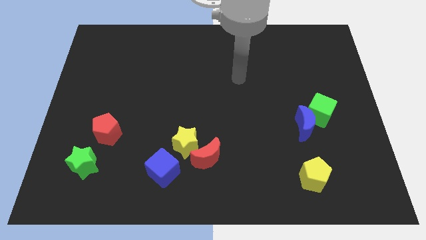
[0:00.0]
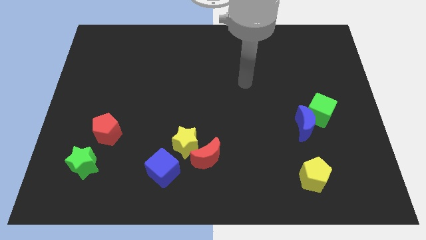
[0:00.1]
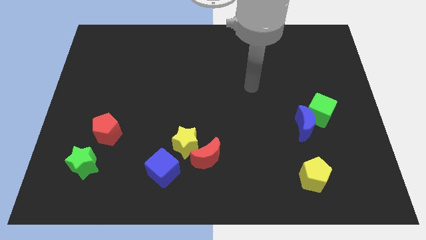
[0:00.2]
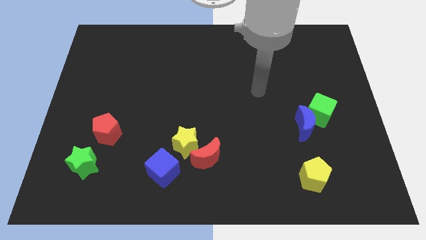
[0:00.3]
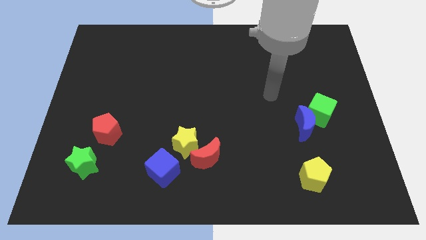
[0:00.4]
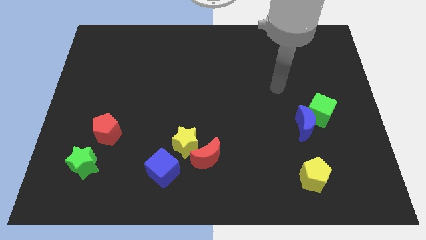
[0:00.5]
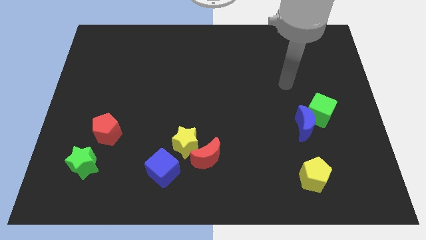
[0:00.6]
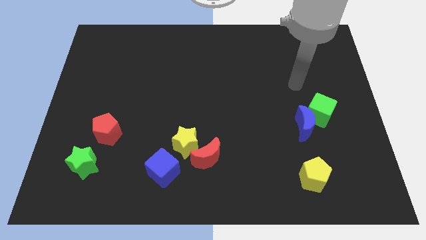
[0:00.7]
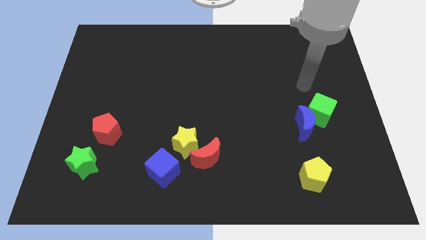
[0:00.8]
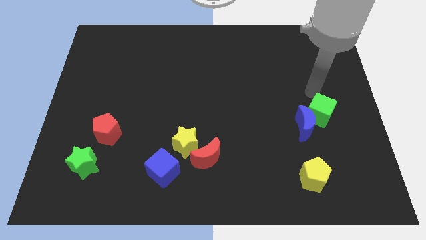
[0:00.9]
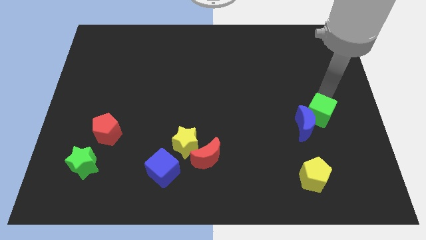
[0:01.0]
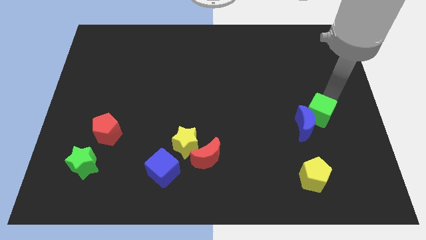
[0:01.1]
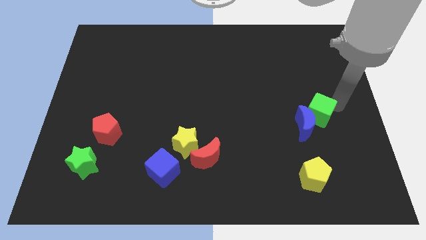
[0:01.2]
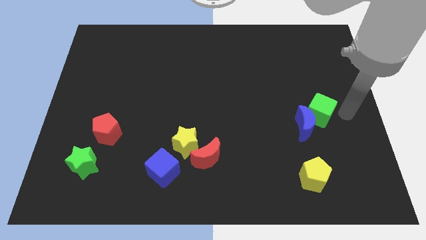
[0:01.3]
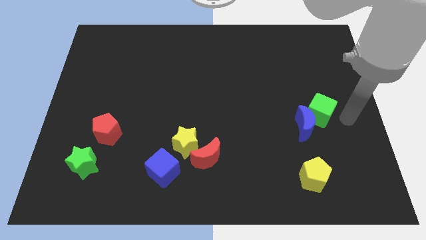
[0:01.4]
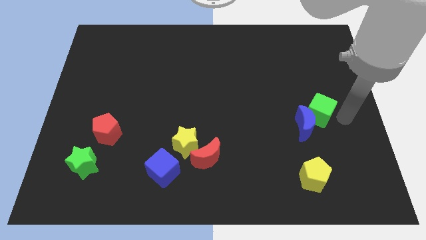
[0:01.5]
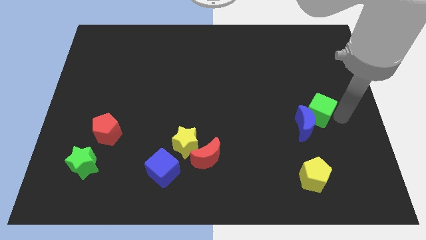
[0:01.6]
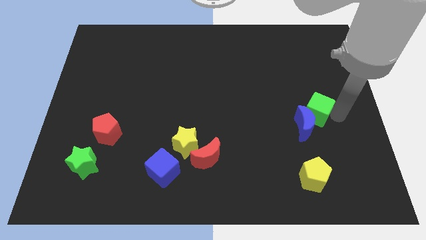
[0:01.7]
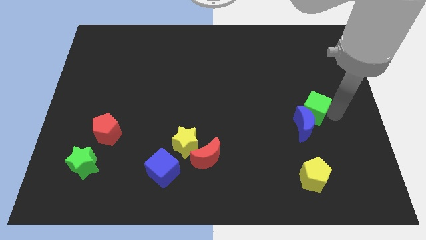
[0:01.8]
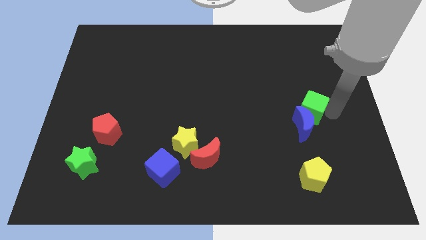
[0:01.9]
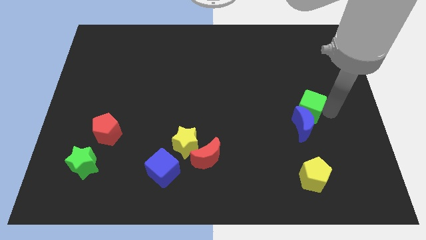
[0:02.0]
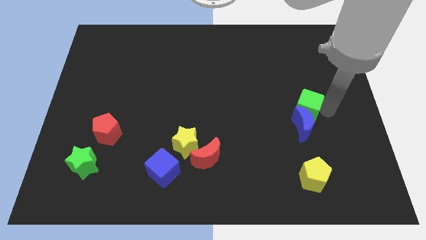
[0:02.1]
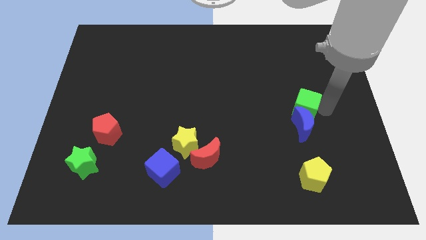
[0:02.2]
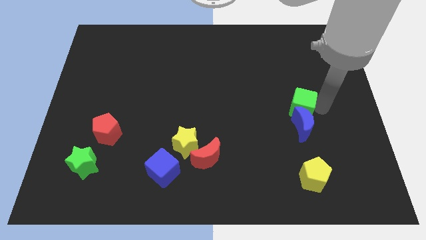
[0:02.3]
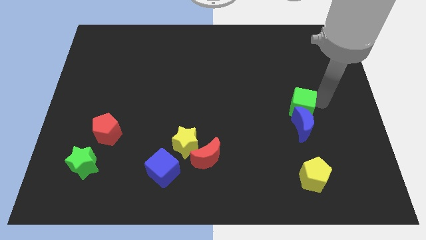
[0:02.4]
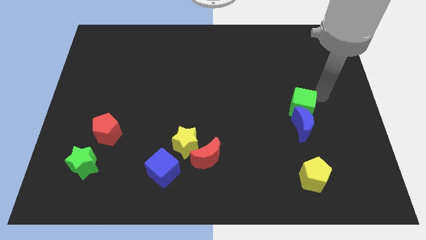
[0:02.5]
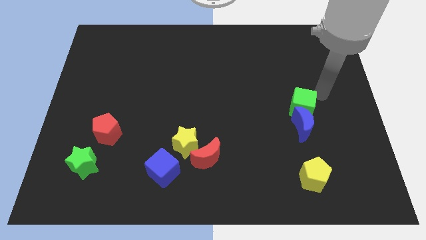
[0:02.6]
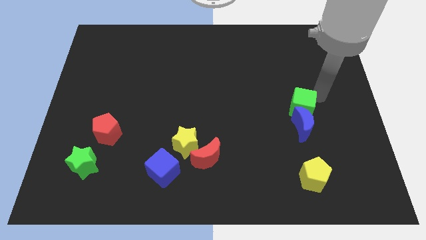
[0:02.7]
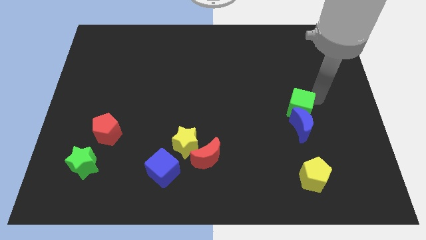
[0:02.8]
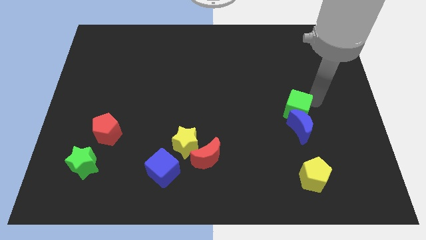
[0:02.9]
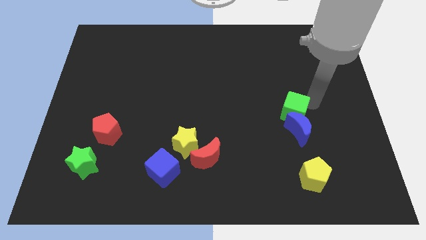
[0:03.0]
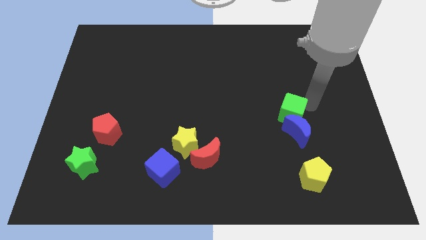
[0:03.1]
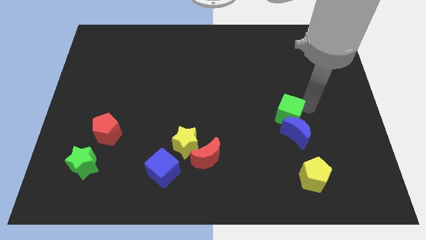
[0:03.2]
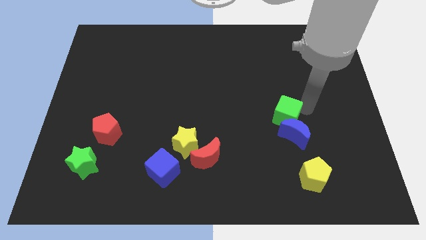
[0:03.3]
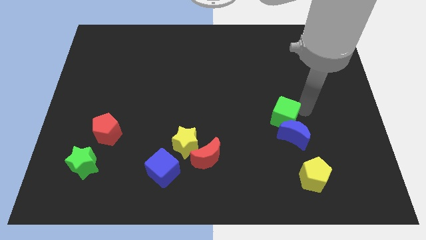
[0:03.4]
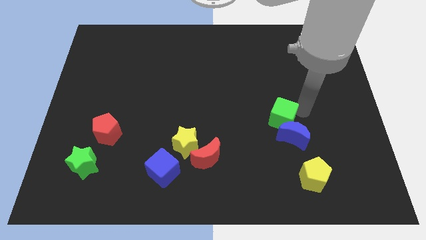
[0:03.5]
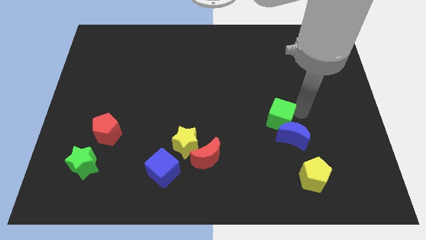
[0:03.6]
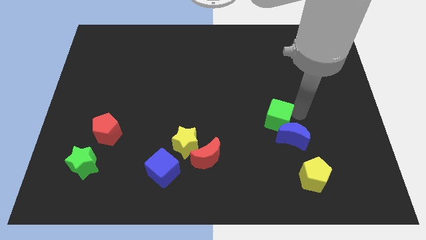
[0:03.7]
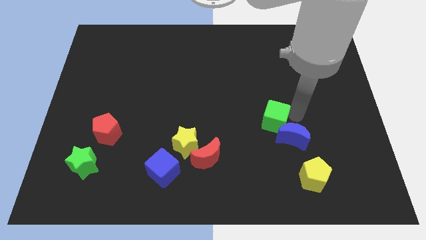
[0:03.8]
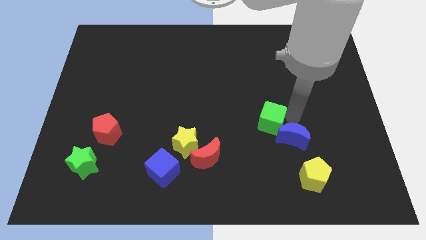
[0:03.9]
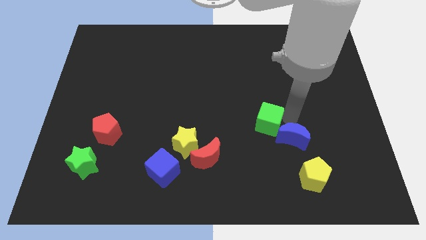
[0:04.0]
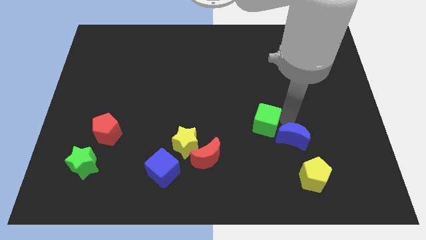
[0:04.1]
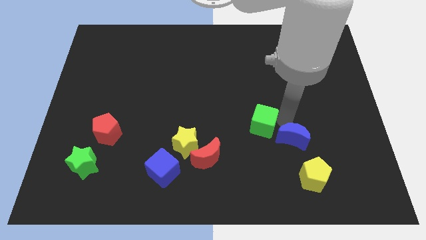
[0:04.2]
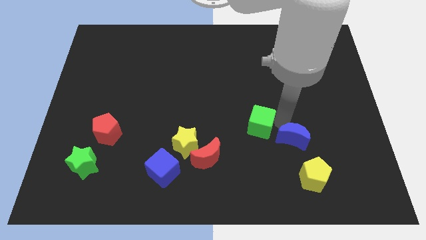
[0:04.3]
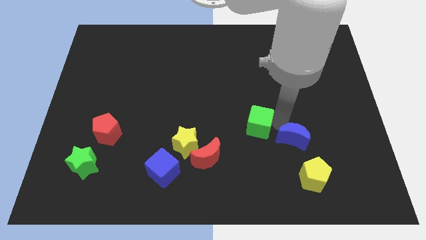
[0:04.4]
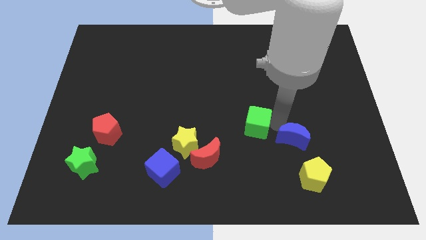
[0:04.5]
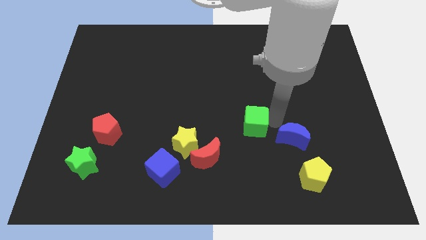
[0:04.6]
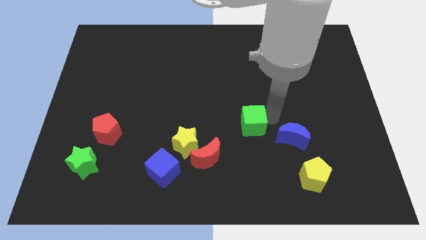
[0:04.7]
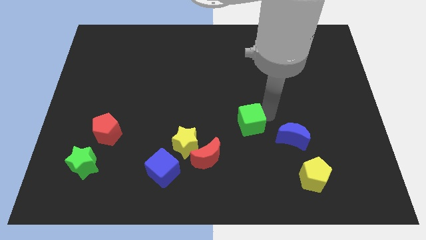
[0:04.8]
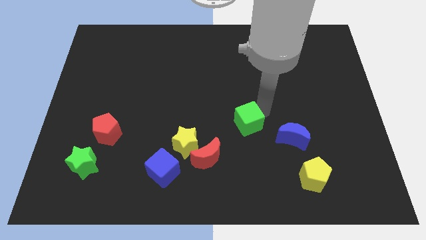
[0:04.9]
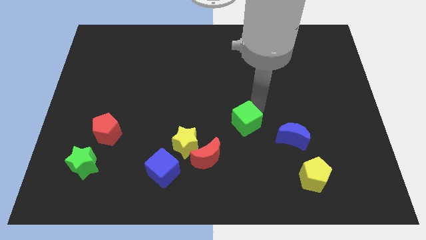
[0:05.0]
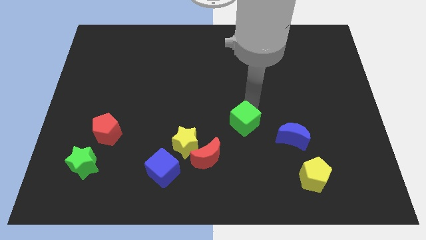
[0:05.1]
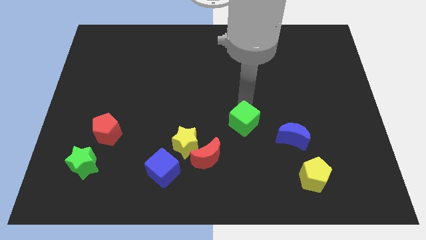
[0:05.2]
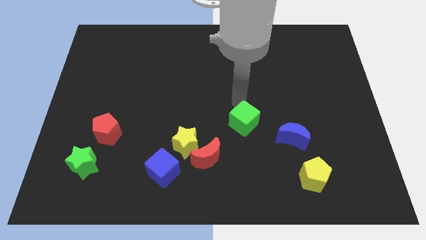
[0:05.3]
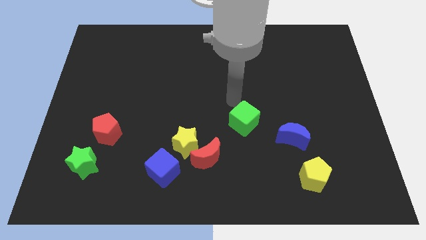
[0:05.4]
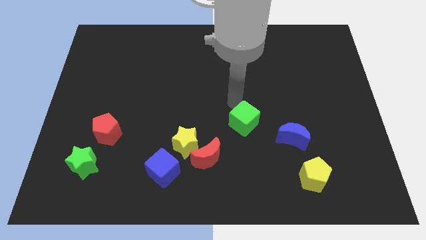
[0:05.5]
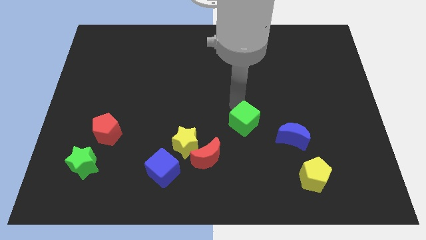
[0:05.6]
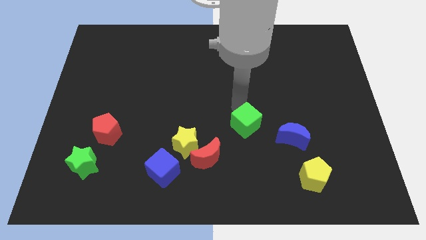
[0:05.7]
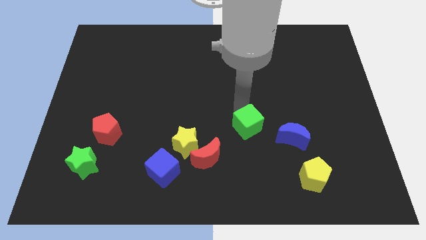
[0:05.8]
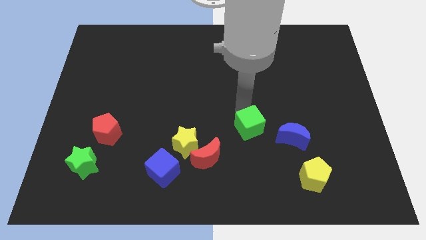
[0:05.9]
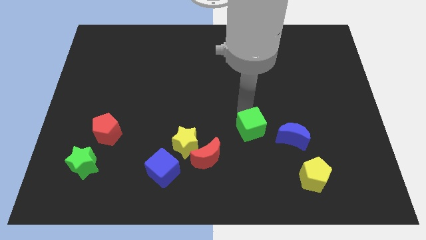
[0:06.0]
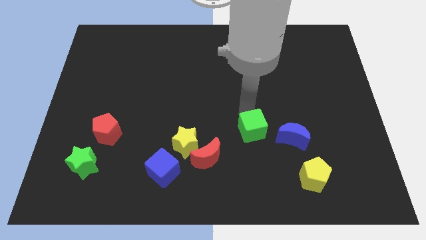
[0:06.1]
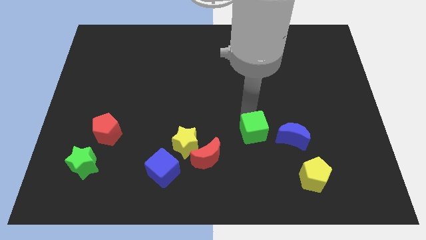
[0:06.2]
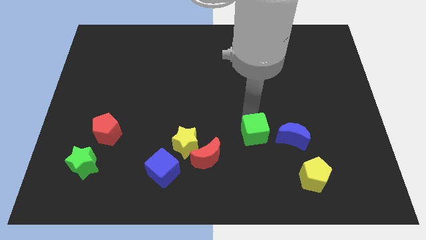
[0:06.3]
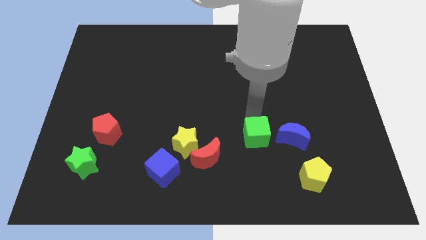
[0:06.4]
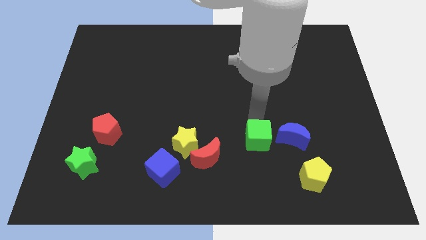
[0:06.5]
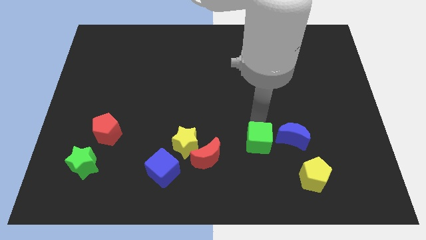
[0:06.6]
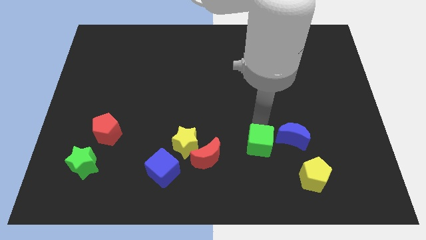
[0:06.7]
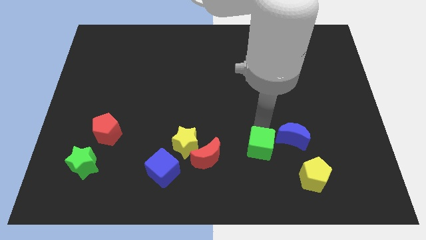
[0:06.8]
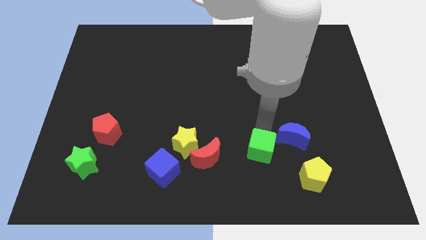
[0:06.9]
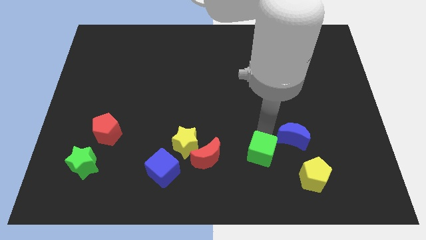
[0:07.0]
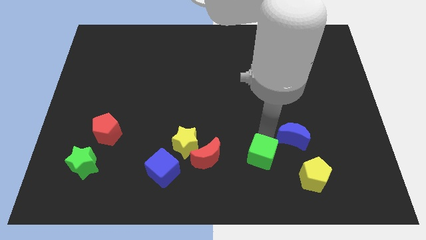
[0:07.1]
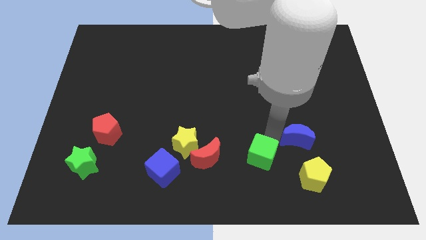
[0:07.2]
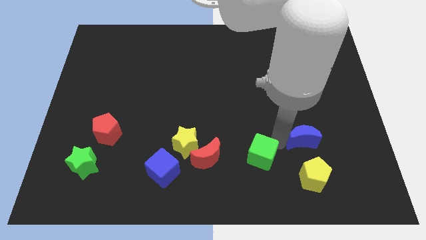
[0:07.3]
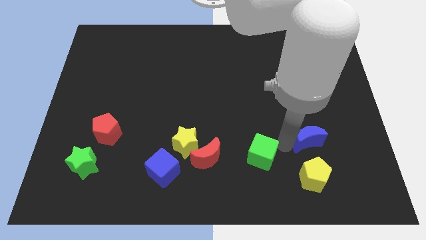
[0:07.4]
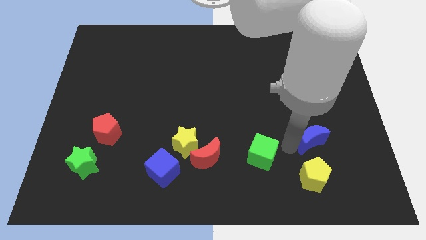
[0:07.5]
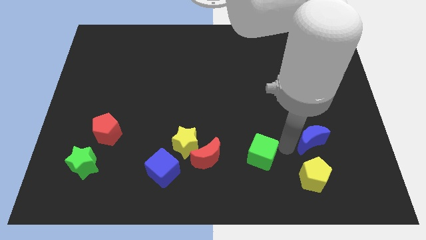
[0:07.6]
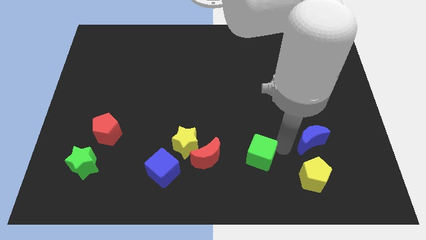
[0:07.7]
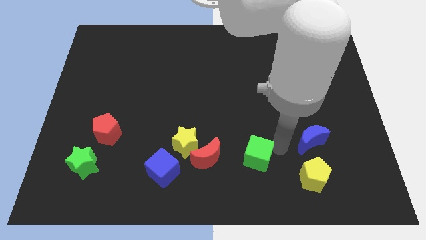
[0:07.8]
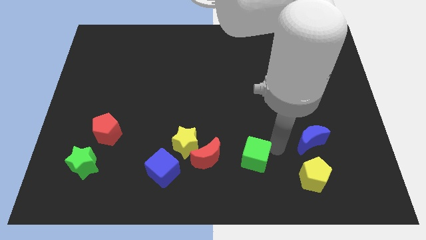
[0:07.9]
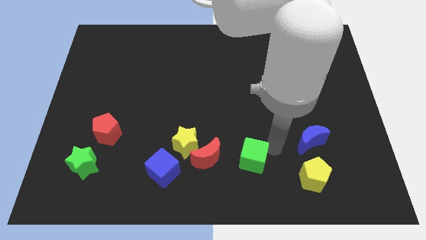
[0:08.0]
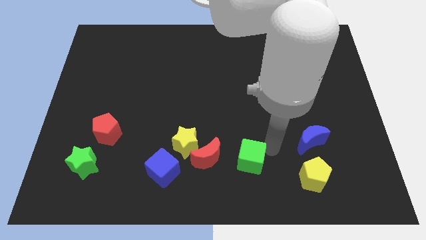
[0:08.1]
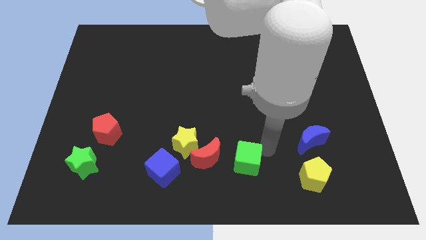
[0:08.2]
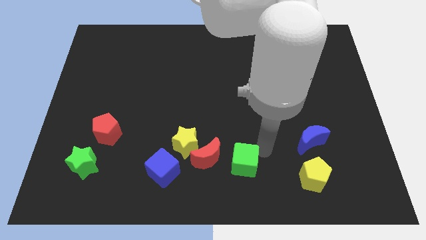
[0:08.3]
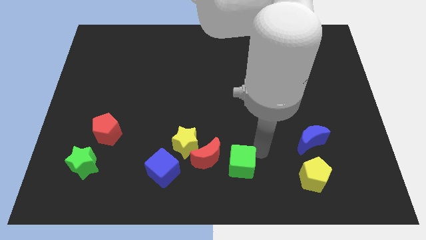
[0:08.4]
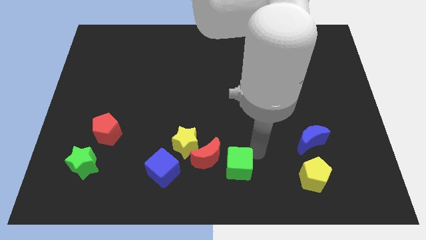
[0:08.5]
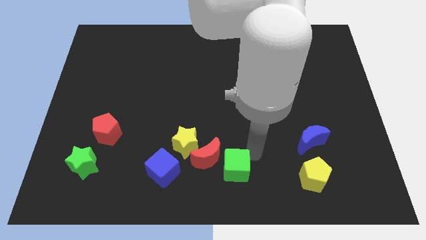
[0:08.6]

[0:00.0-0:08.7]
move the green cube diagonally down and to the right of the yellow star
